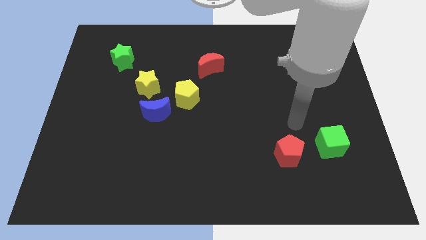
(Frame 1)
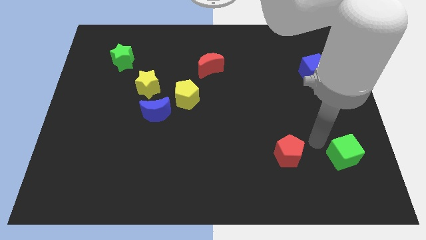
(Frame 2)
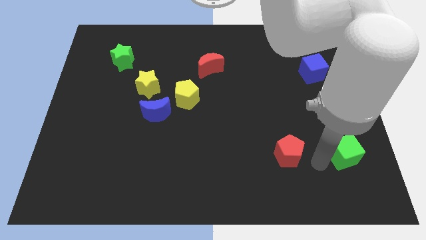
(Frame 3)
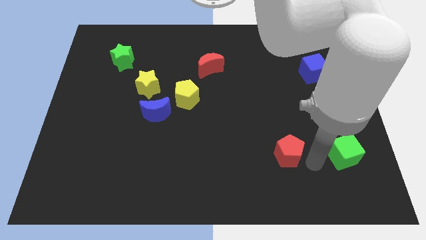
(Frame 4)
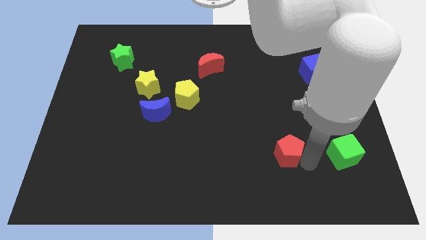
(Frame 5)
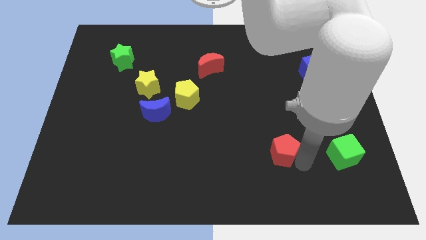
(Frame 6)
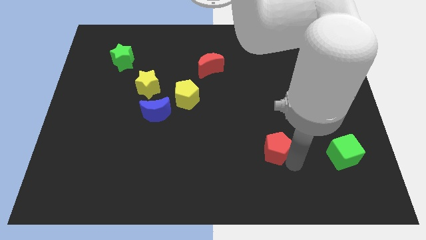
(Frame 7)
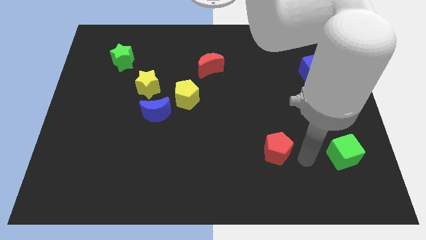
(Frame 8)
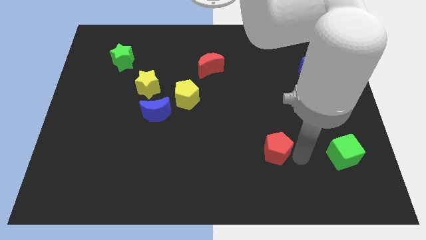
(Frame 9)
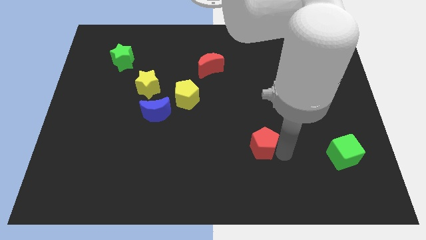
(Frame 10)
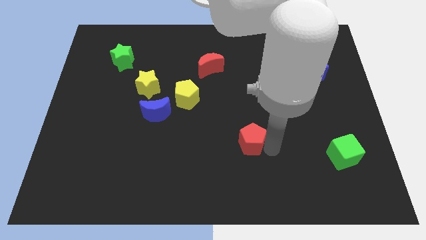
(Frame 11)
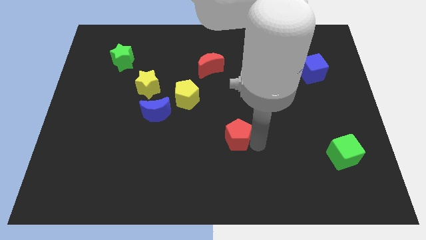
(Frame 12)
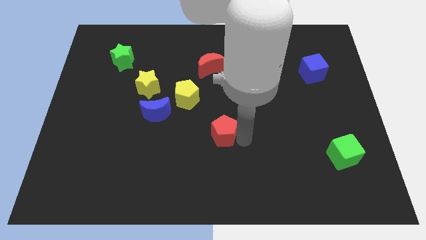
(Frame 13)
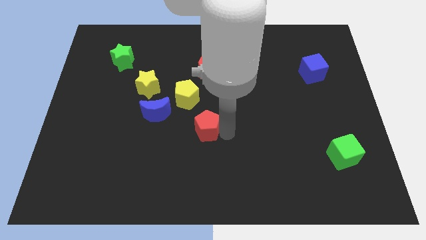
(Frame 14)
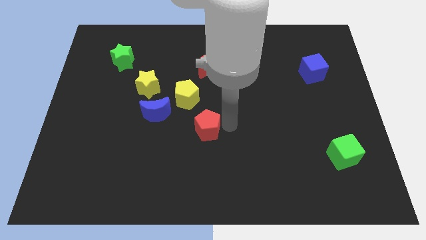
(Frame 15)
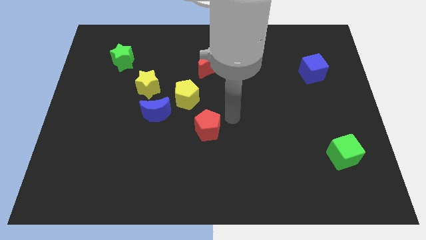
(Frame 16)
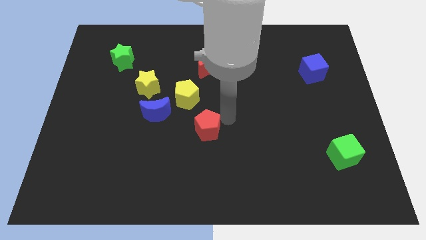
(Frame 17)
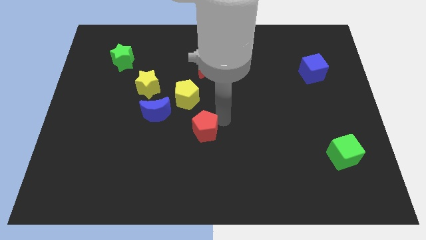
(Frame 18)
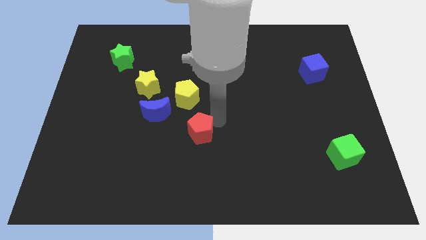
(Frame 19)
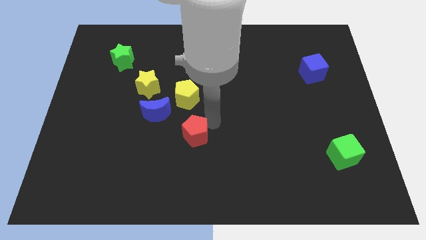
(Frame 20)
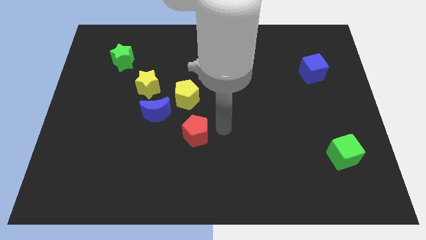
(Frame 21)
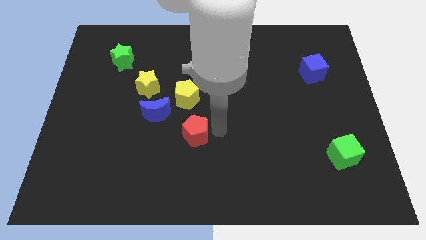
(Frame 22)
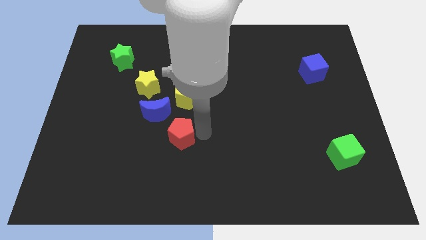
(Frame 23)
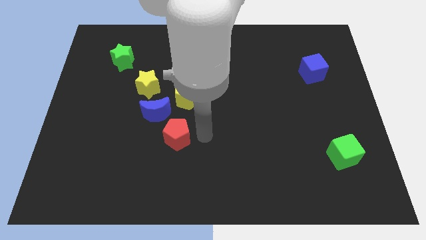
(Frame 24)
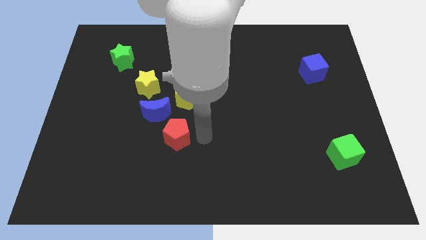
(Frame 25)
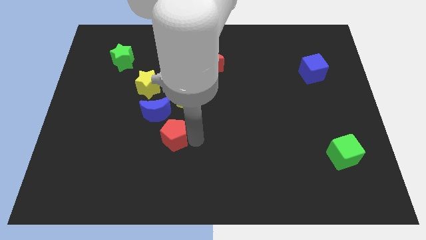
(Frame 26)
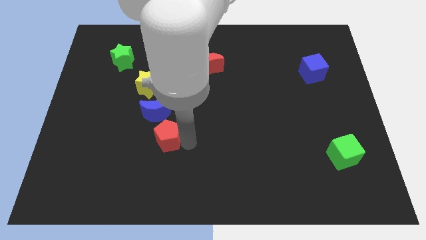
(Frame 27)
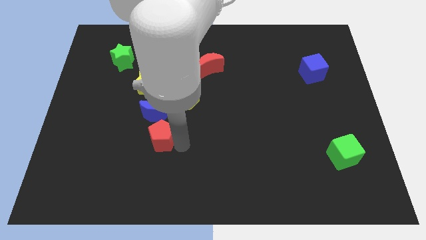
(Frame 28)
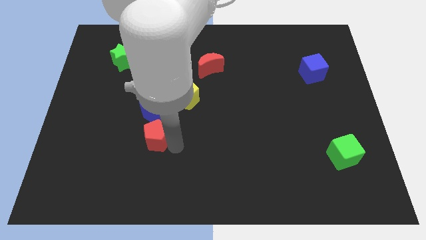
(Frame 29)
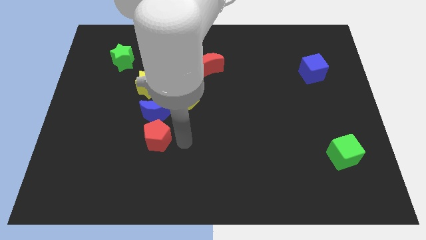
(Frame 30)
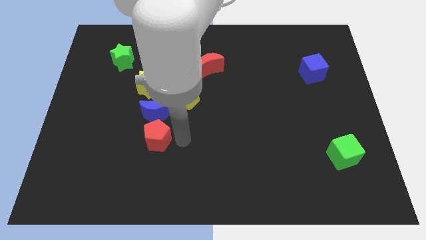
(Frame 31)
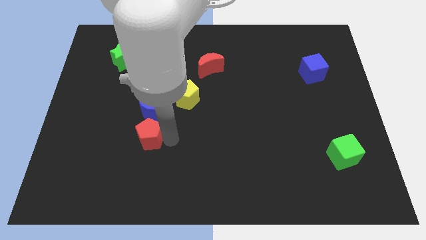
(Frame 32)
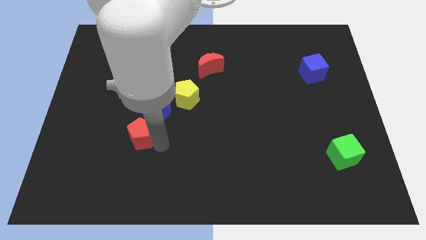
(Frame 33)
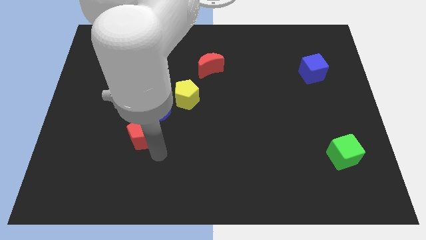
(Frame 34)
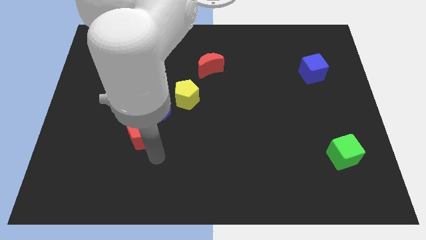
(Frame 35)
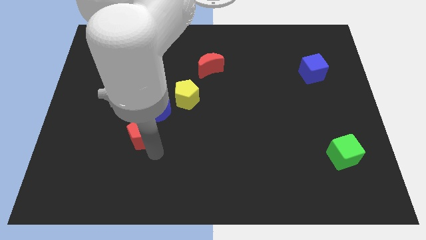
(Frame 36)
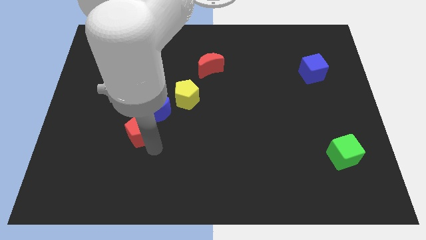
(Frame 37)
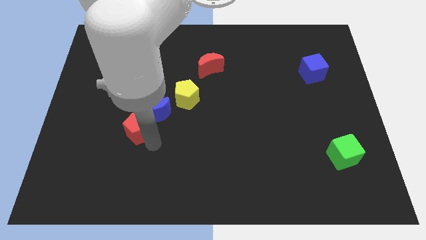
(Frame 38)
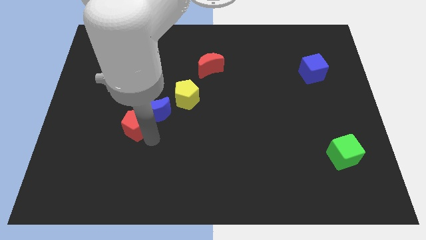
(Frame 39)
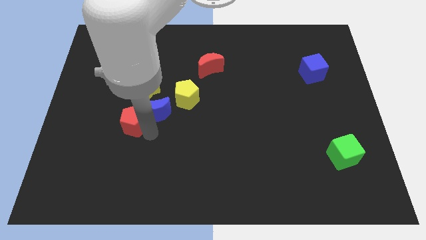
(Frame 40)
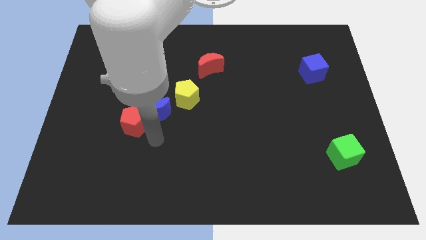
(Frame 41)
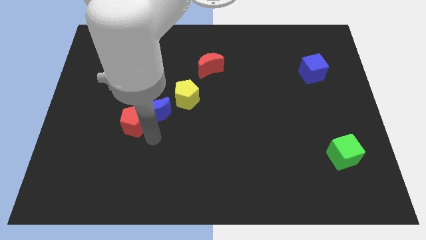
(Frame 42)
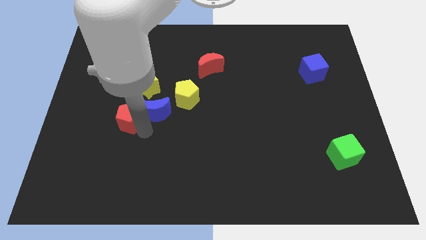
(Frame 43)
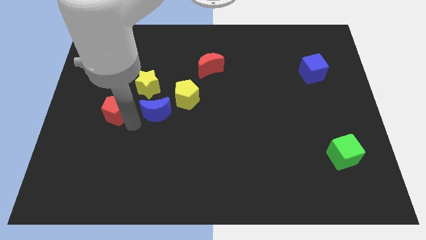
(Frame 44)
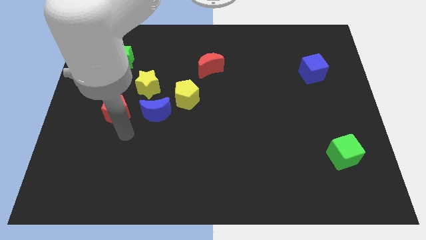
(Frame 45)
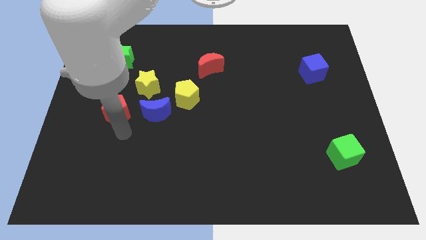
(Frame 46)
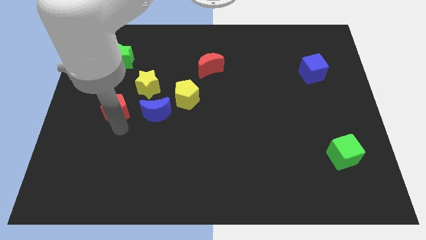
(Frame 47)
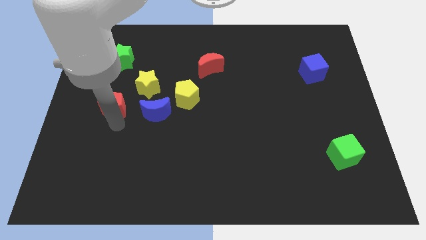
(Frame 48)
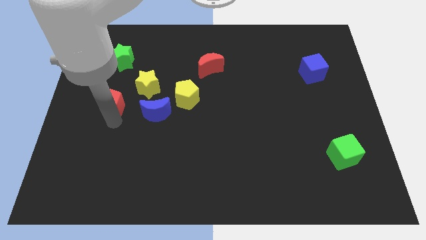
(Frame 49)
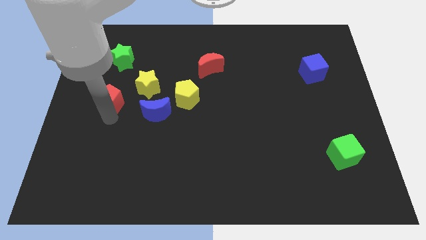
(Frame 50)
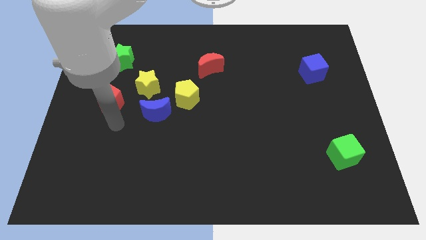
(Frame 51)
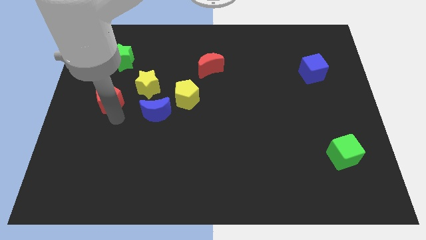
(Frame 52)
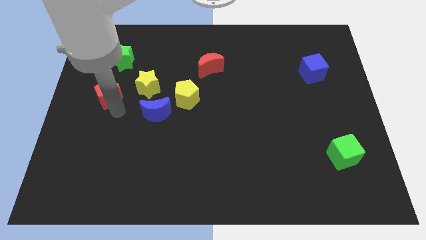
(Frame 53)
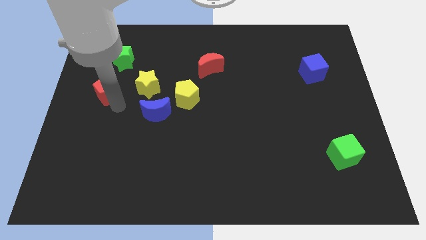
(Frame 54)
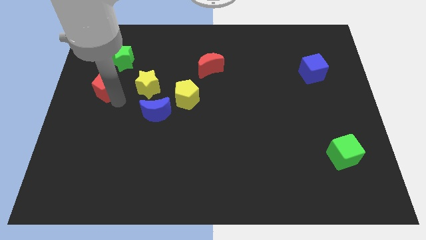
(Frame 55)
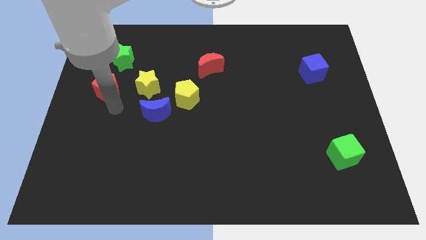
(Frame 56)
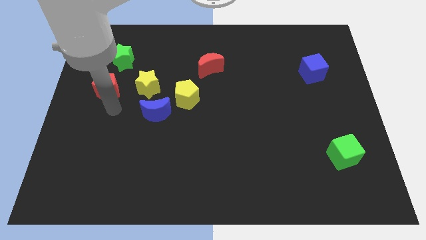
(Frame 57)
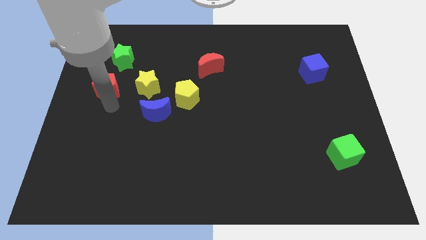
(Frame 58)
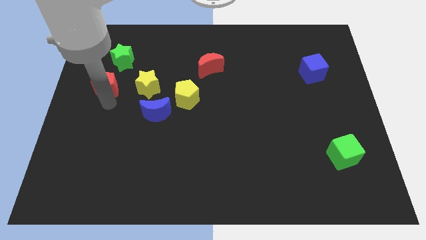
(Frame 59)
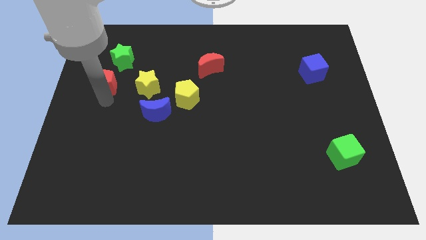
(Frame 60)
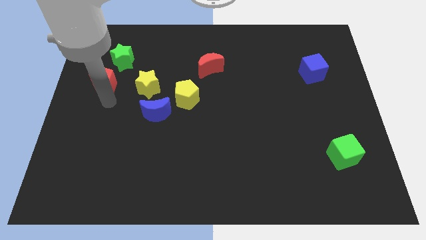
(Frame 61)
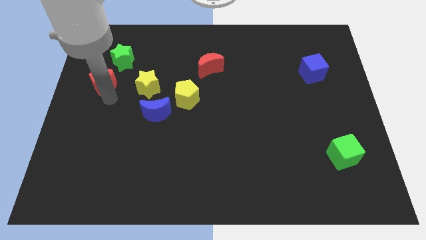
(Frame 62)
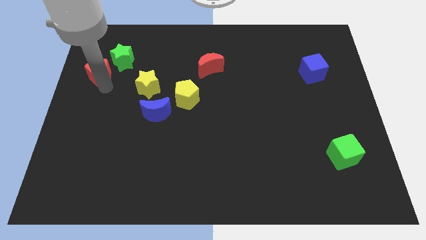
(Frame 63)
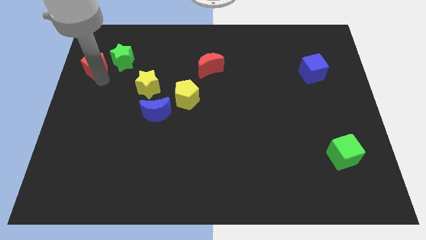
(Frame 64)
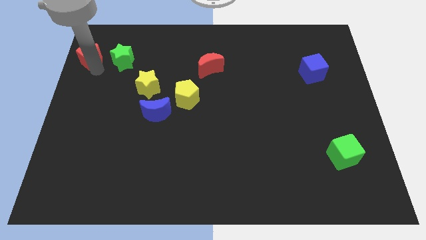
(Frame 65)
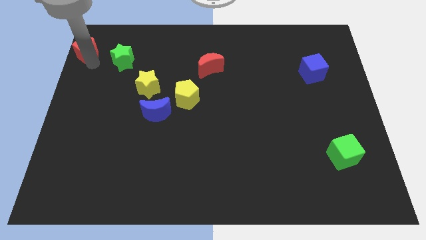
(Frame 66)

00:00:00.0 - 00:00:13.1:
move the red pentagon to the top left
